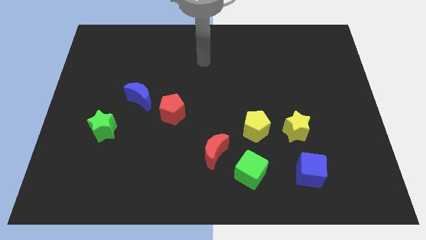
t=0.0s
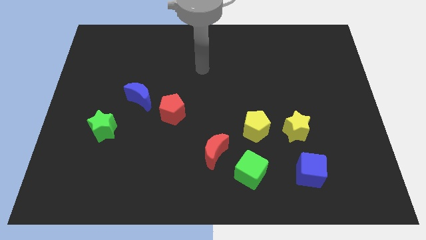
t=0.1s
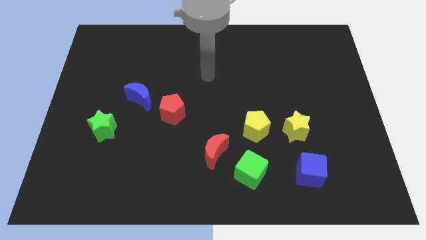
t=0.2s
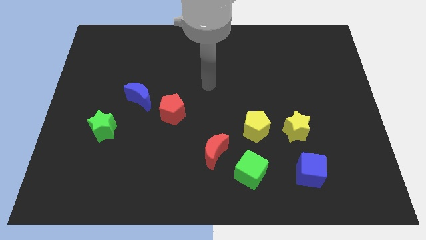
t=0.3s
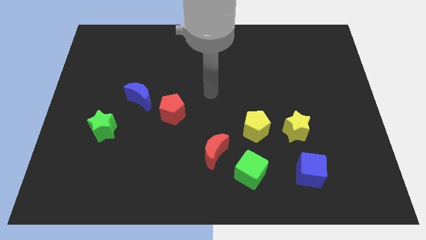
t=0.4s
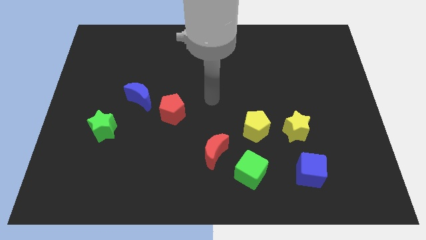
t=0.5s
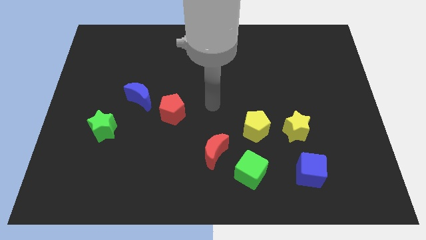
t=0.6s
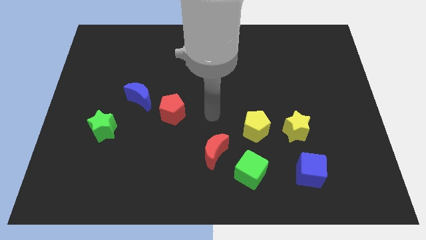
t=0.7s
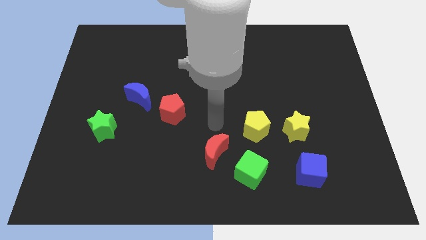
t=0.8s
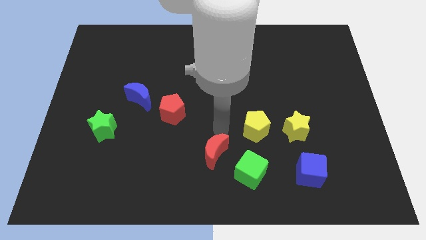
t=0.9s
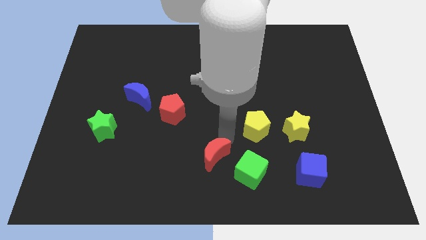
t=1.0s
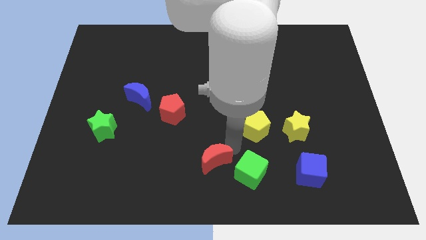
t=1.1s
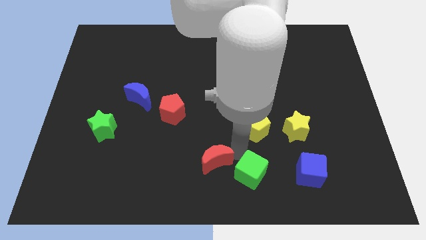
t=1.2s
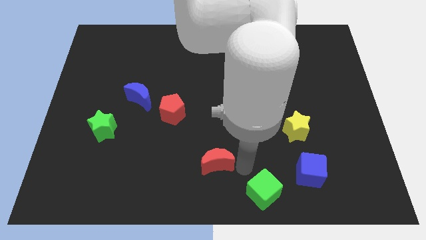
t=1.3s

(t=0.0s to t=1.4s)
separate the red moon from the green cube

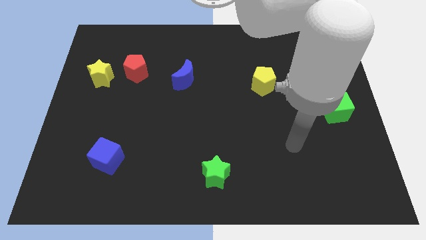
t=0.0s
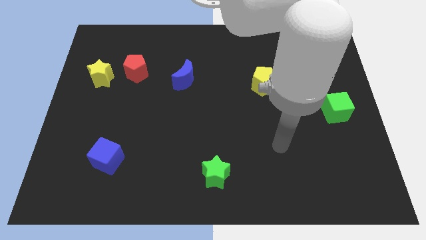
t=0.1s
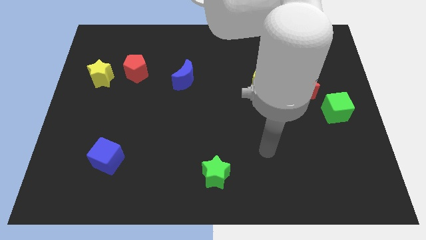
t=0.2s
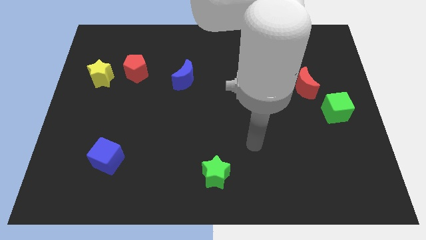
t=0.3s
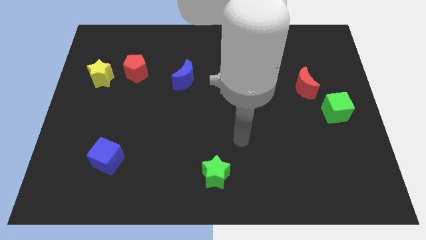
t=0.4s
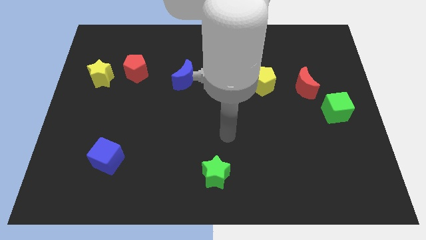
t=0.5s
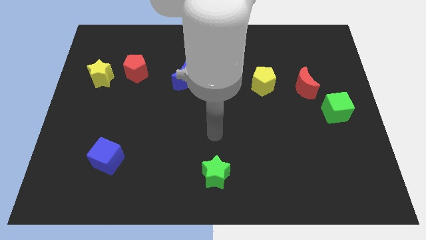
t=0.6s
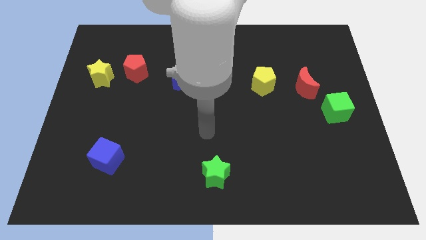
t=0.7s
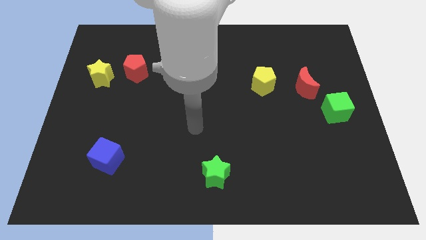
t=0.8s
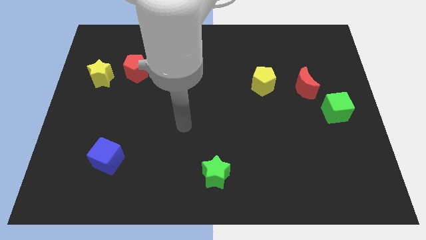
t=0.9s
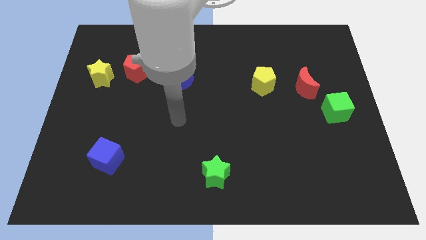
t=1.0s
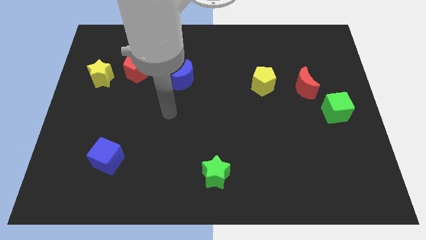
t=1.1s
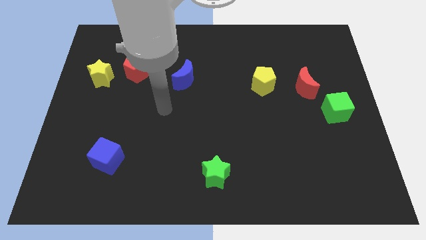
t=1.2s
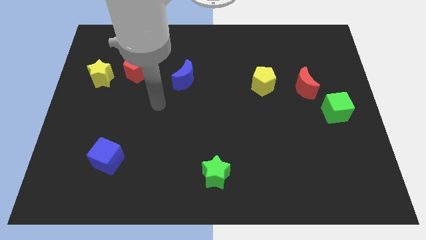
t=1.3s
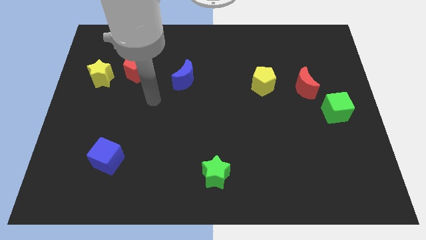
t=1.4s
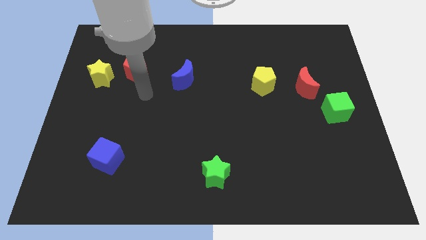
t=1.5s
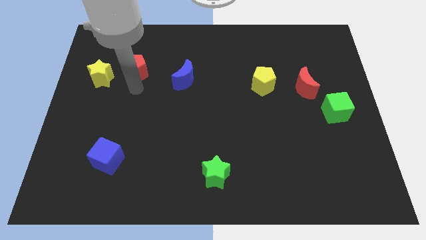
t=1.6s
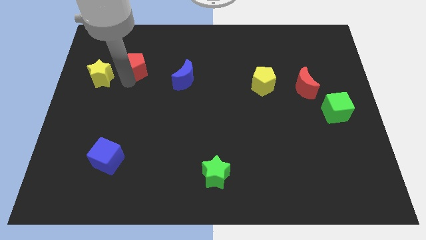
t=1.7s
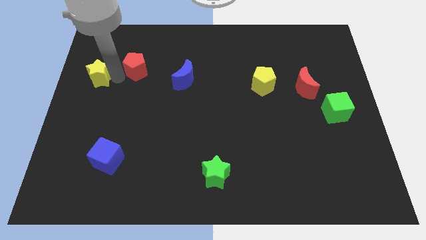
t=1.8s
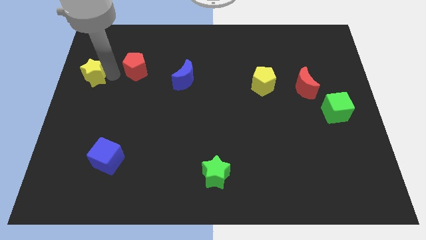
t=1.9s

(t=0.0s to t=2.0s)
move the red pentagon away from the yellow star

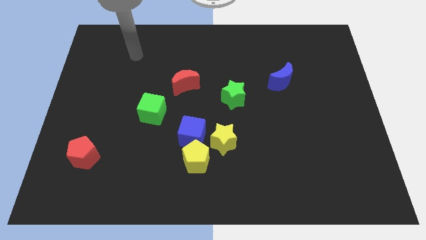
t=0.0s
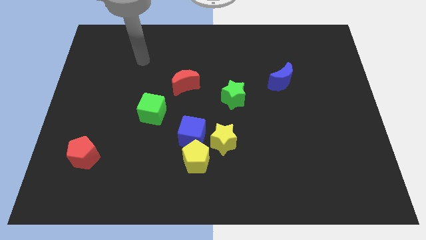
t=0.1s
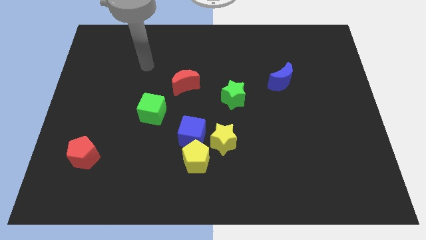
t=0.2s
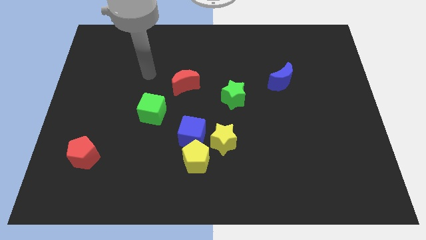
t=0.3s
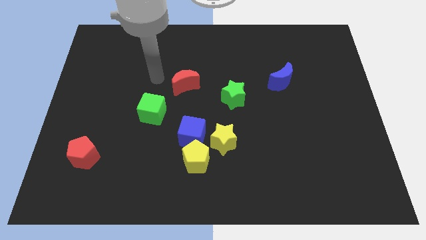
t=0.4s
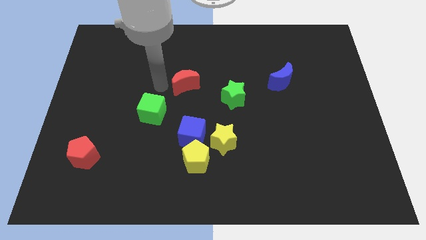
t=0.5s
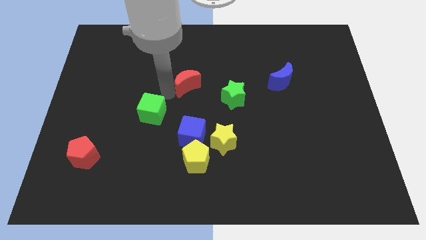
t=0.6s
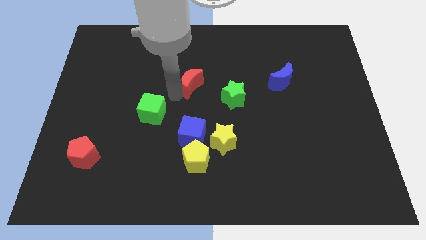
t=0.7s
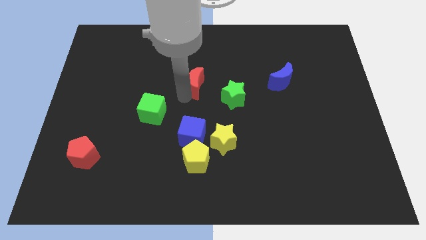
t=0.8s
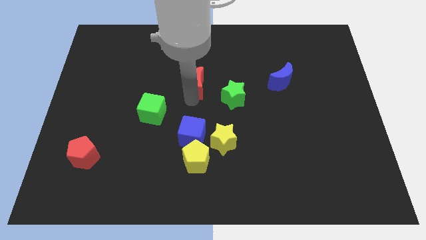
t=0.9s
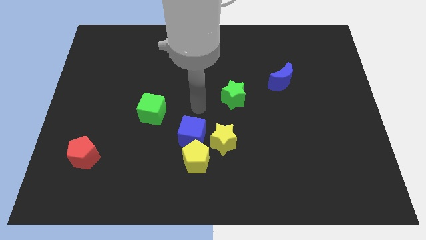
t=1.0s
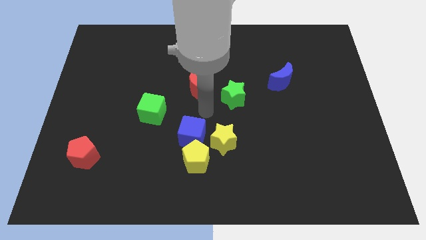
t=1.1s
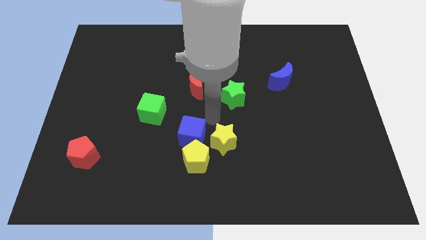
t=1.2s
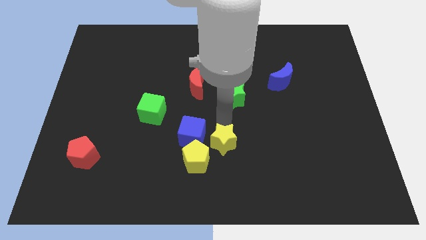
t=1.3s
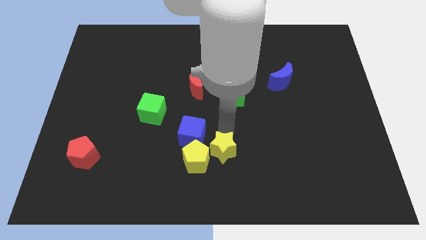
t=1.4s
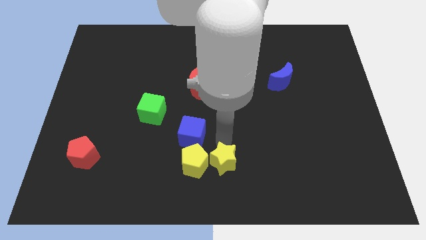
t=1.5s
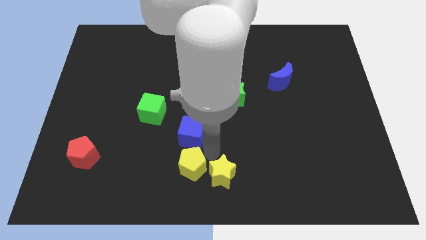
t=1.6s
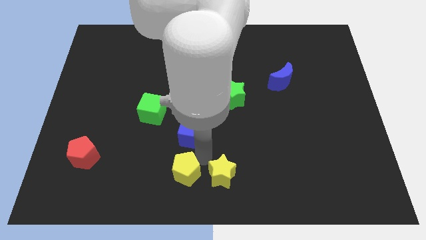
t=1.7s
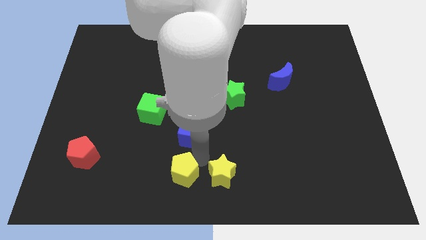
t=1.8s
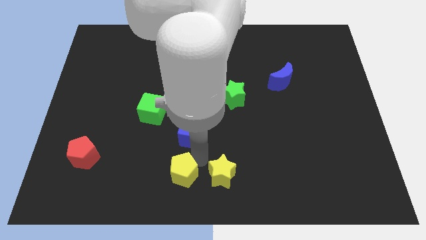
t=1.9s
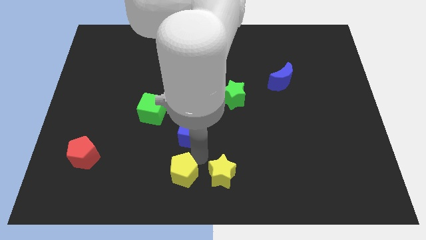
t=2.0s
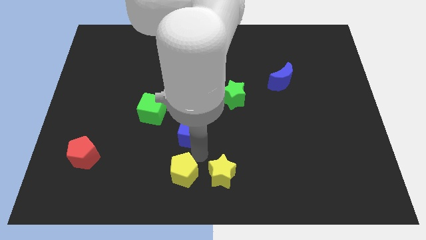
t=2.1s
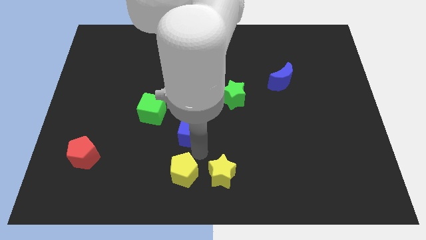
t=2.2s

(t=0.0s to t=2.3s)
move the blue cube away from the yellow pentagon and yellow star

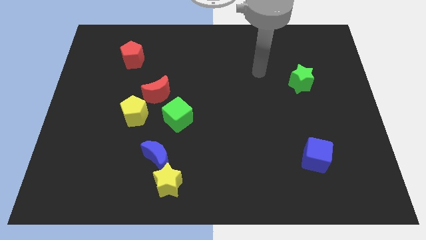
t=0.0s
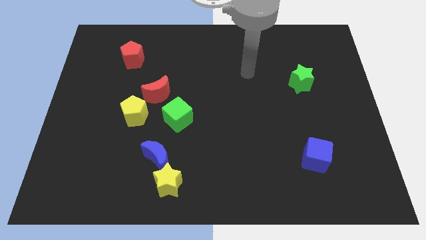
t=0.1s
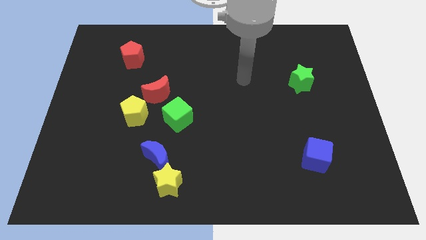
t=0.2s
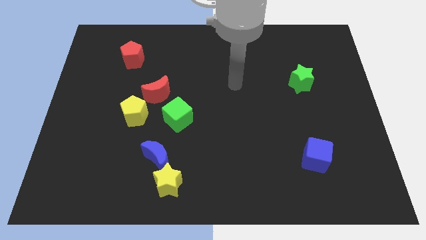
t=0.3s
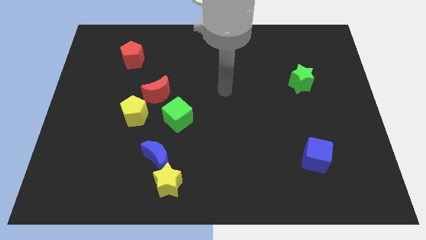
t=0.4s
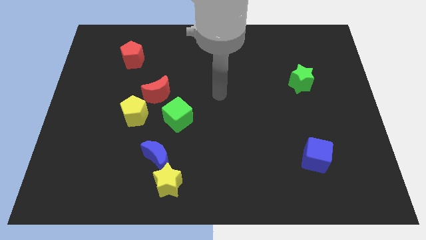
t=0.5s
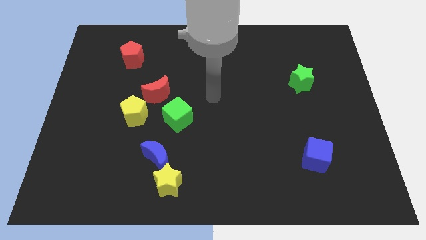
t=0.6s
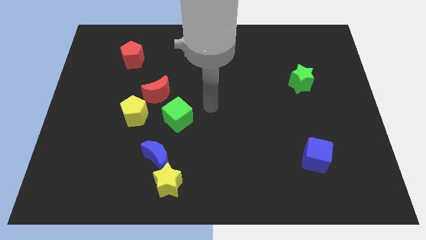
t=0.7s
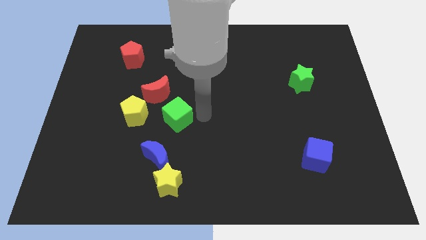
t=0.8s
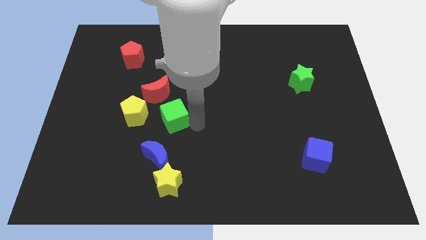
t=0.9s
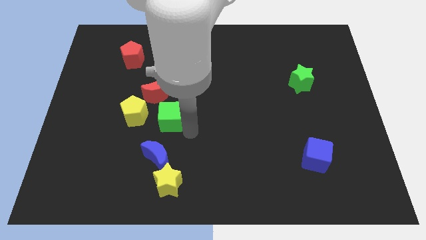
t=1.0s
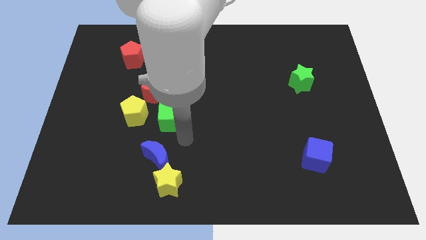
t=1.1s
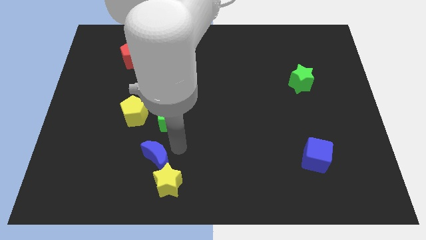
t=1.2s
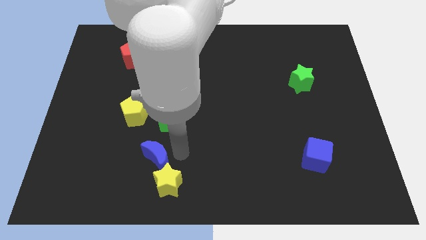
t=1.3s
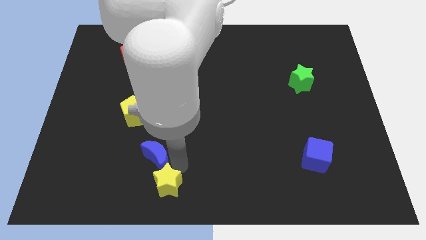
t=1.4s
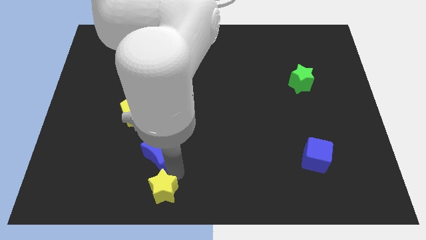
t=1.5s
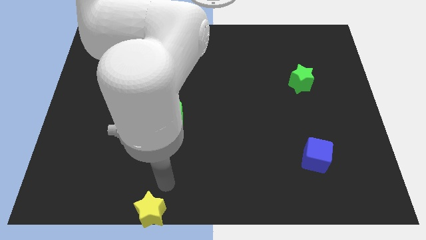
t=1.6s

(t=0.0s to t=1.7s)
move the blue moon away from the yellow star

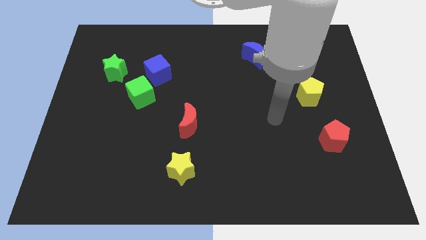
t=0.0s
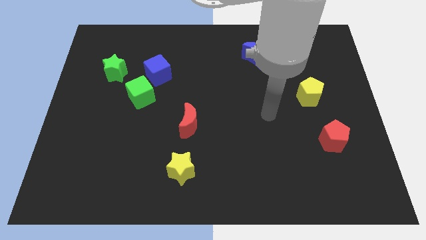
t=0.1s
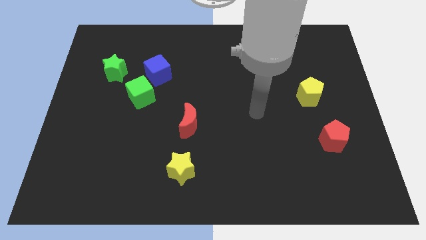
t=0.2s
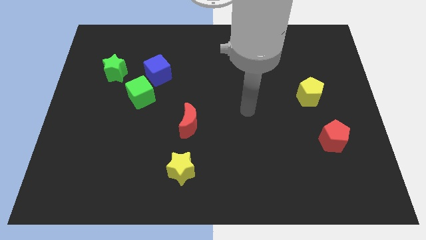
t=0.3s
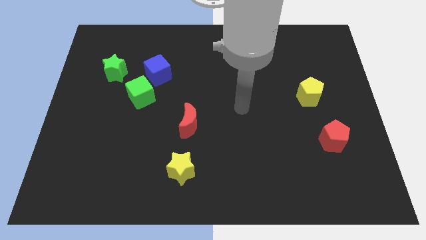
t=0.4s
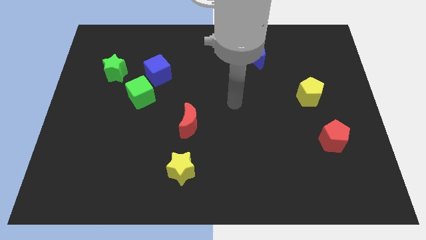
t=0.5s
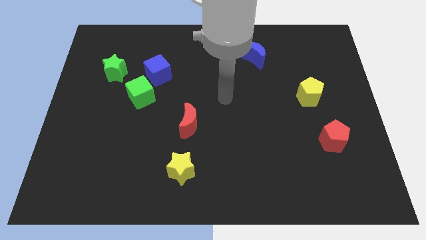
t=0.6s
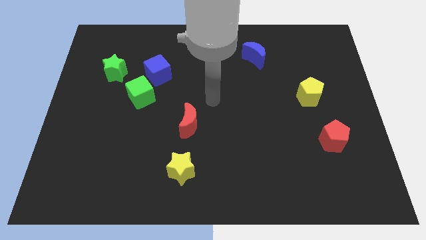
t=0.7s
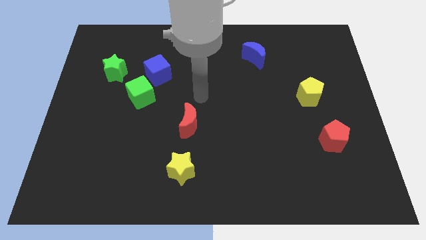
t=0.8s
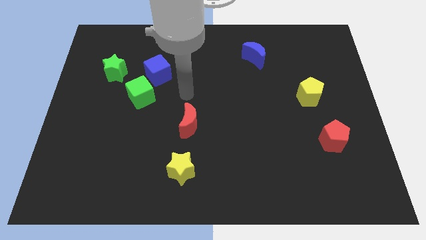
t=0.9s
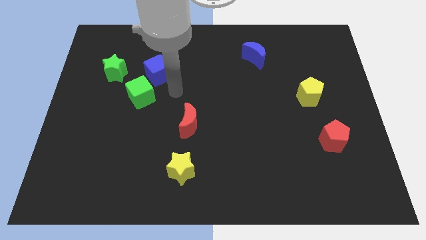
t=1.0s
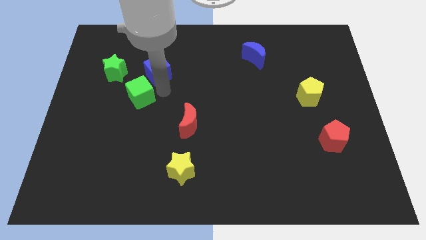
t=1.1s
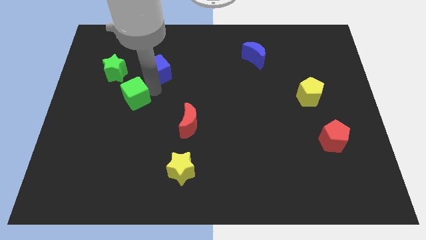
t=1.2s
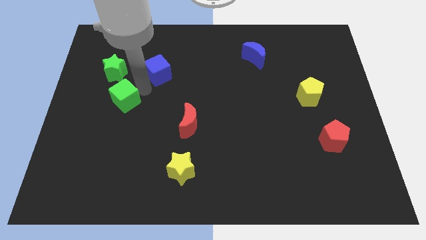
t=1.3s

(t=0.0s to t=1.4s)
separate the blue cube from the green cube

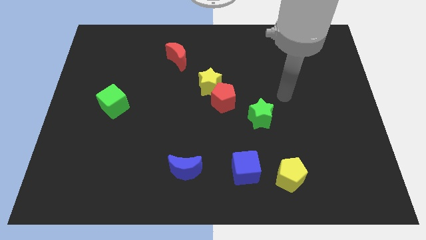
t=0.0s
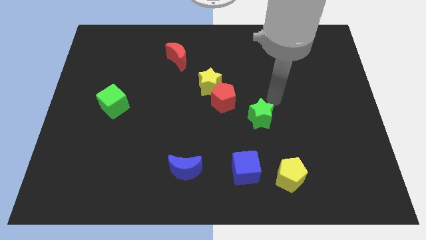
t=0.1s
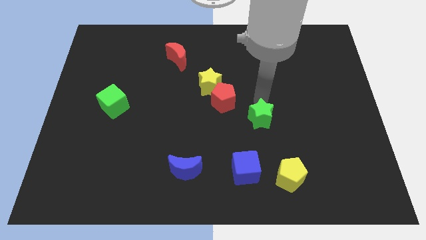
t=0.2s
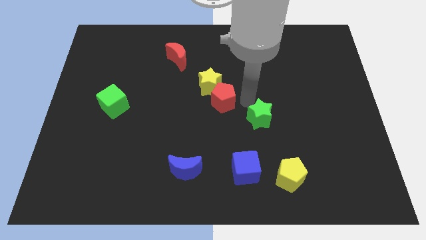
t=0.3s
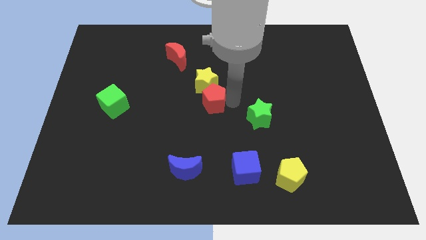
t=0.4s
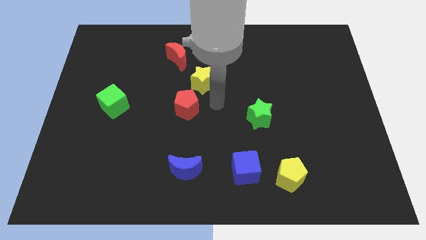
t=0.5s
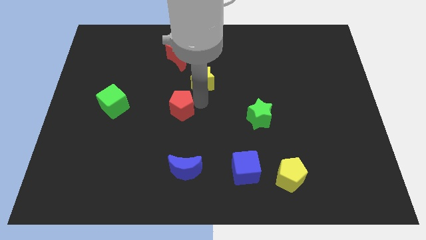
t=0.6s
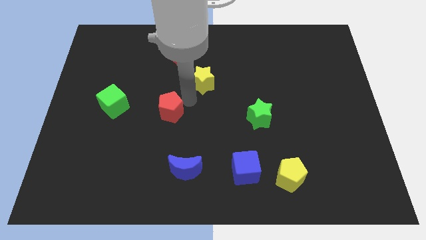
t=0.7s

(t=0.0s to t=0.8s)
separate the yellow star from the red pentagon
